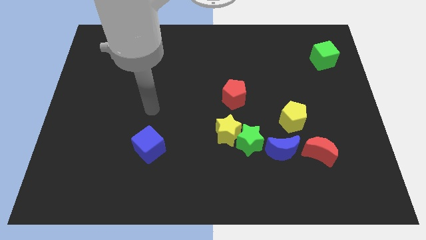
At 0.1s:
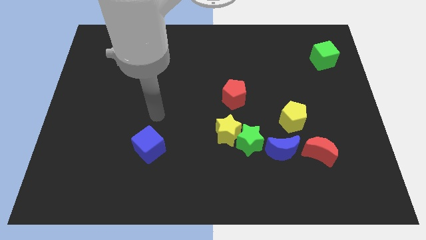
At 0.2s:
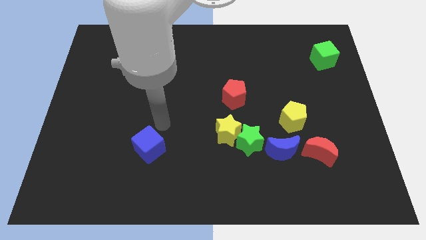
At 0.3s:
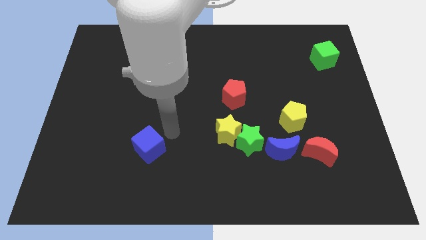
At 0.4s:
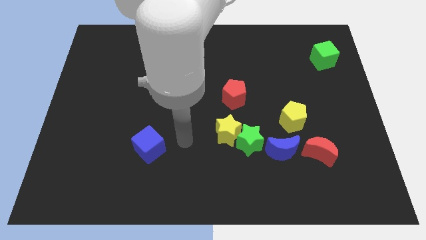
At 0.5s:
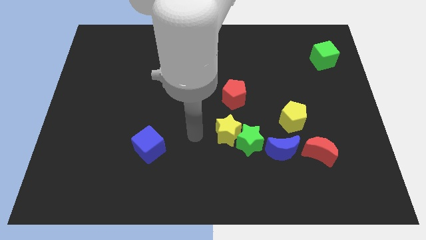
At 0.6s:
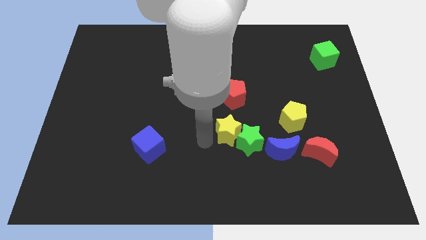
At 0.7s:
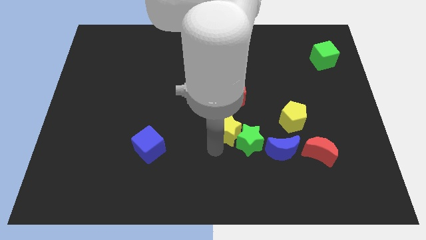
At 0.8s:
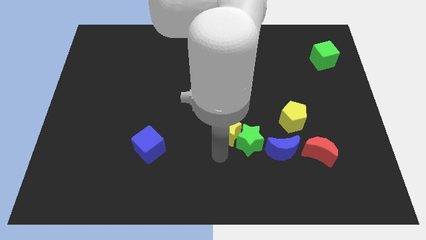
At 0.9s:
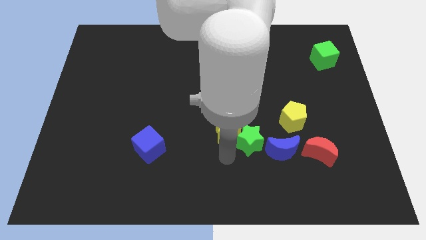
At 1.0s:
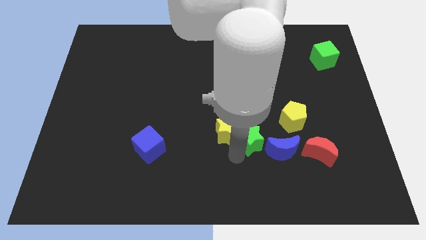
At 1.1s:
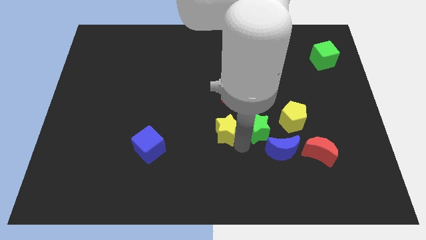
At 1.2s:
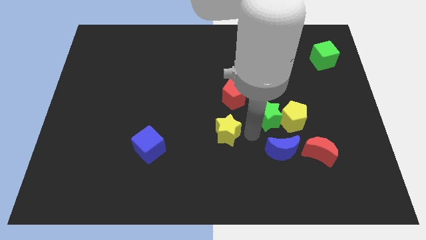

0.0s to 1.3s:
pull the yellow star apart from the green star

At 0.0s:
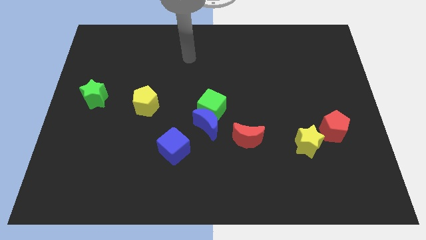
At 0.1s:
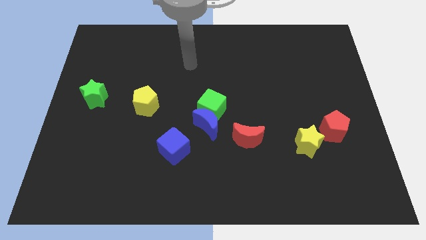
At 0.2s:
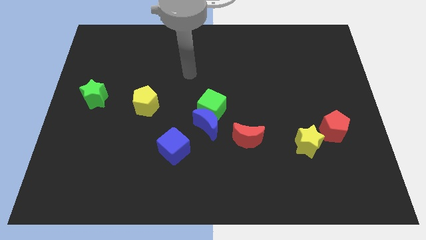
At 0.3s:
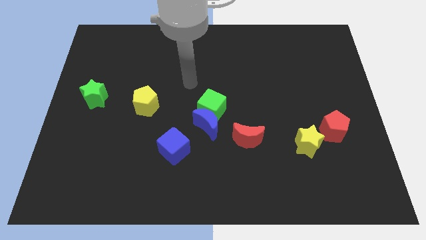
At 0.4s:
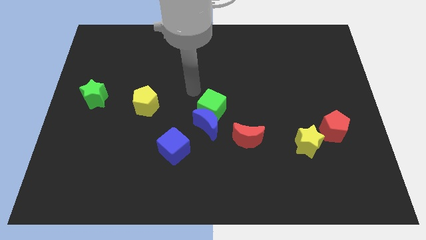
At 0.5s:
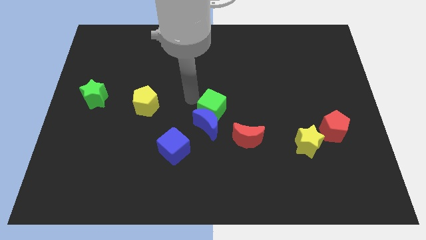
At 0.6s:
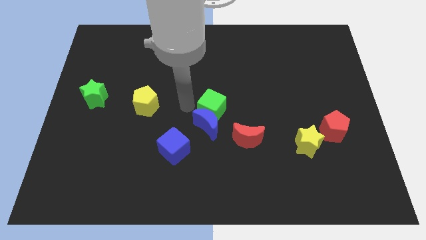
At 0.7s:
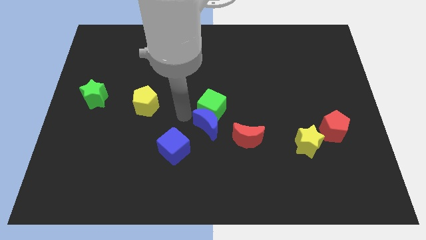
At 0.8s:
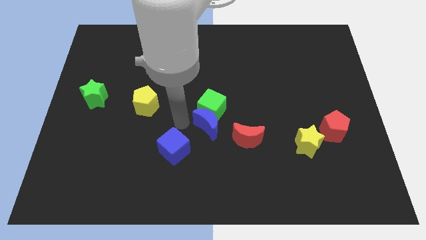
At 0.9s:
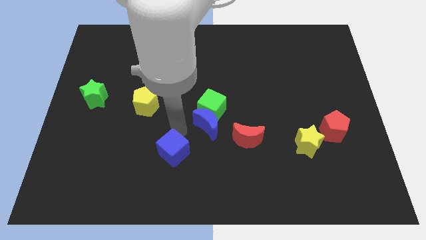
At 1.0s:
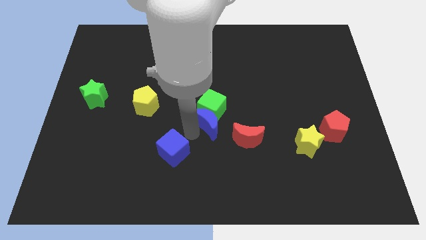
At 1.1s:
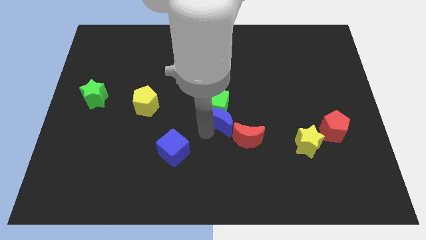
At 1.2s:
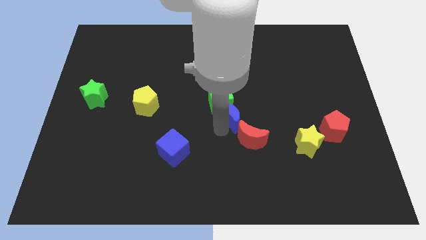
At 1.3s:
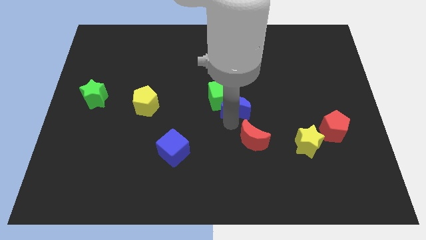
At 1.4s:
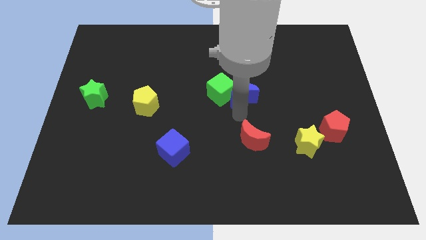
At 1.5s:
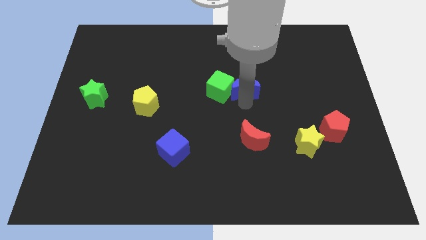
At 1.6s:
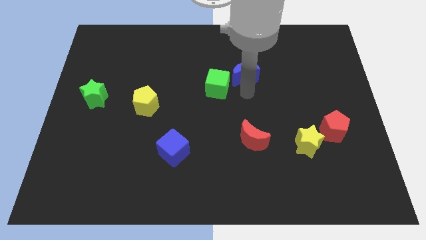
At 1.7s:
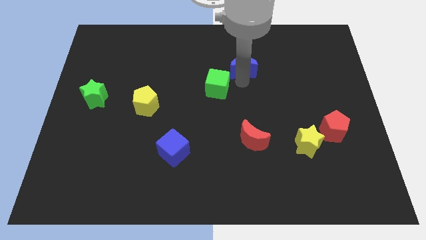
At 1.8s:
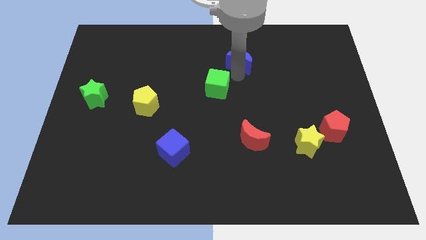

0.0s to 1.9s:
pull the green cube apart from the blue moon

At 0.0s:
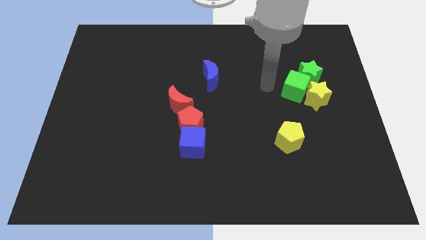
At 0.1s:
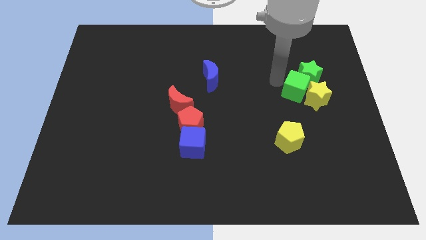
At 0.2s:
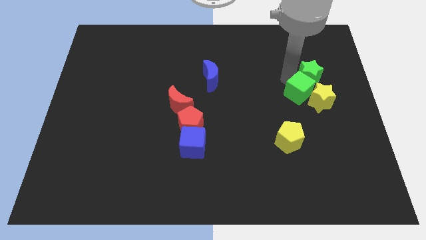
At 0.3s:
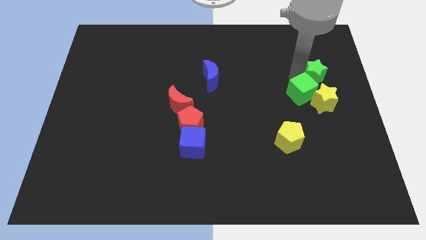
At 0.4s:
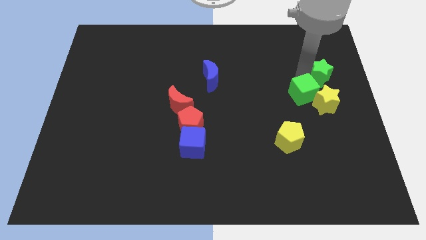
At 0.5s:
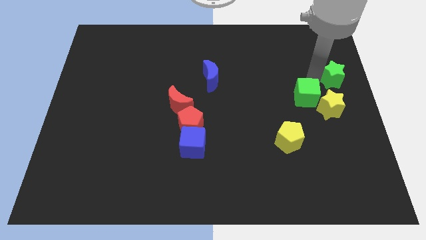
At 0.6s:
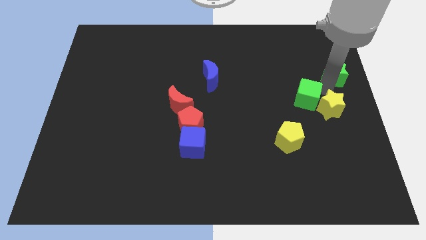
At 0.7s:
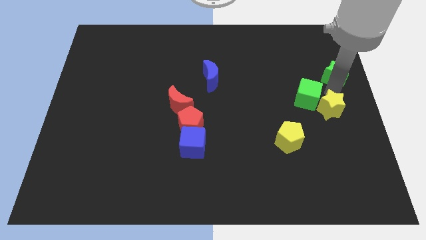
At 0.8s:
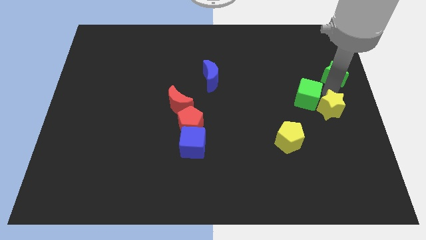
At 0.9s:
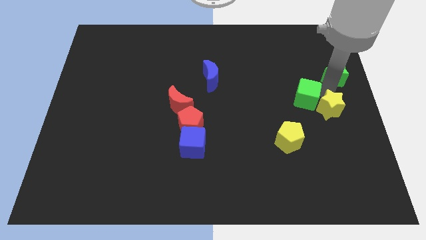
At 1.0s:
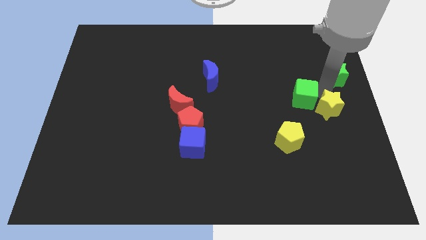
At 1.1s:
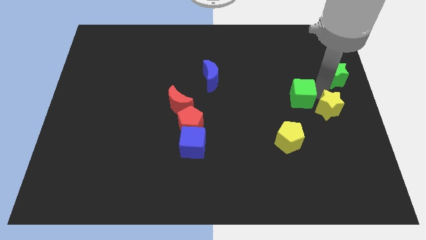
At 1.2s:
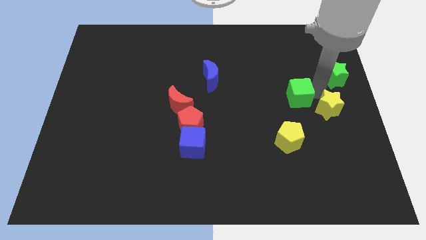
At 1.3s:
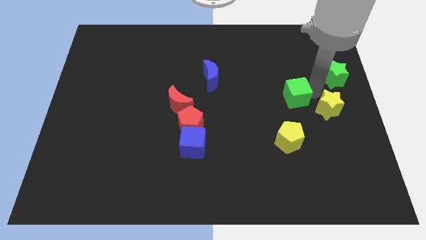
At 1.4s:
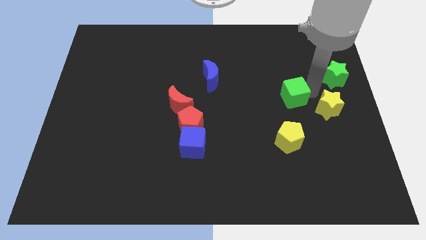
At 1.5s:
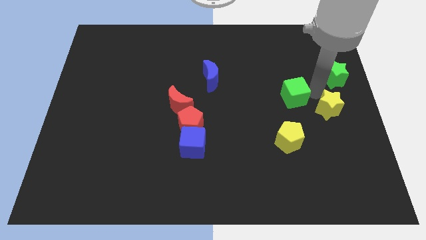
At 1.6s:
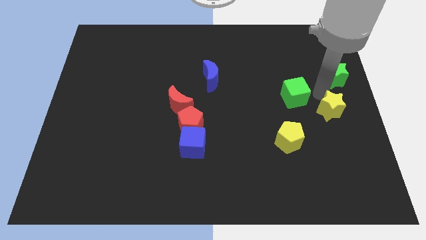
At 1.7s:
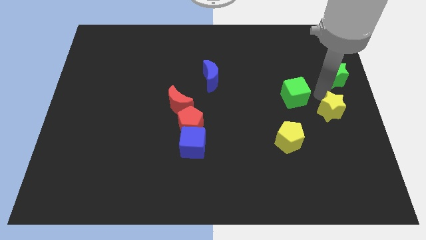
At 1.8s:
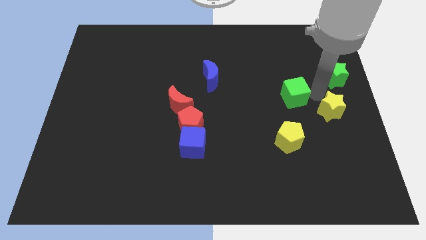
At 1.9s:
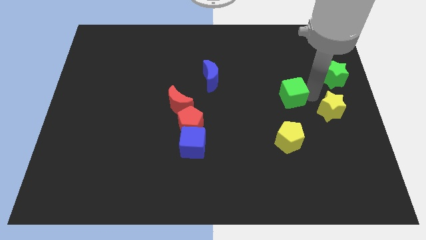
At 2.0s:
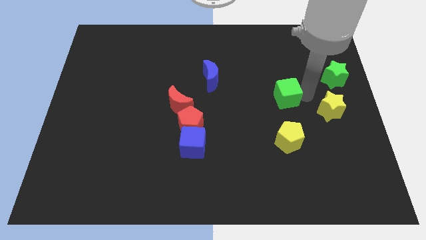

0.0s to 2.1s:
separate the green cube from the green star and yellow star

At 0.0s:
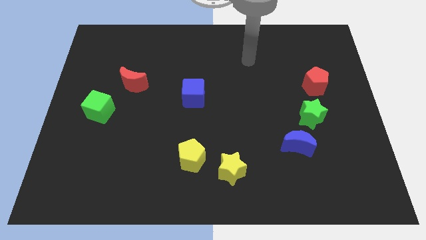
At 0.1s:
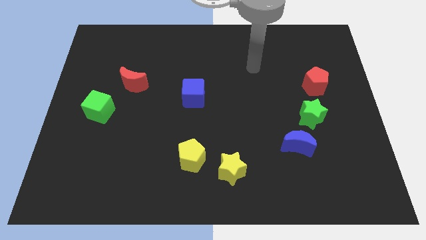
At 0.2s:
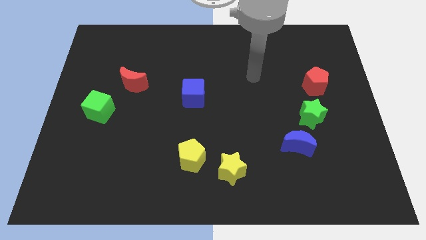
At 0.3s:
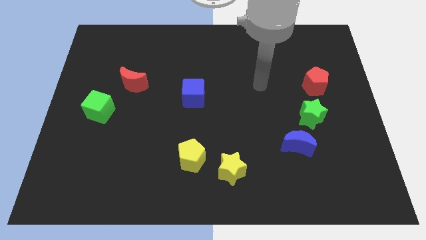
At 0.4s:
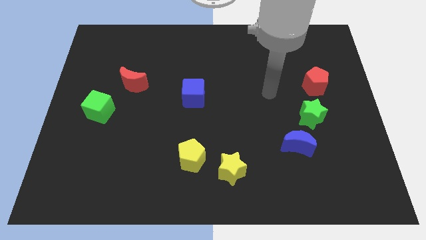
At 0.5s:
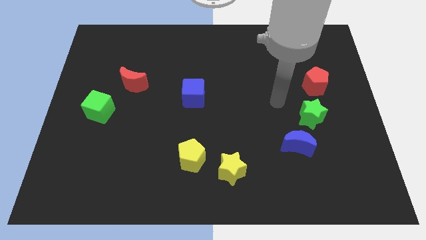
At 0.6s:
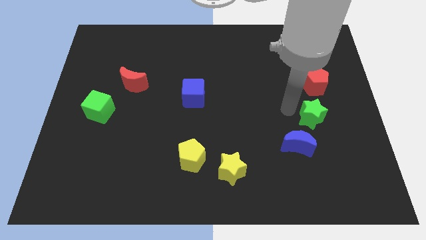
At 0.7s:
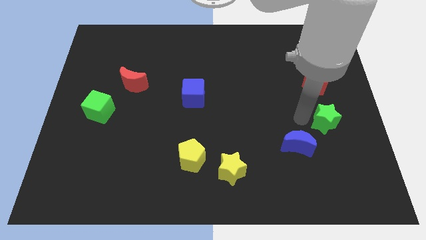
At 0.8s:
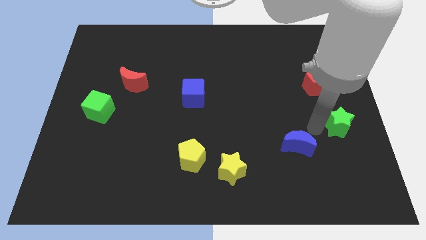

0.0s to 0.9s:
pull the blue moon apart from the green star

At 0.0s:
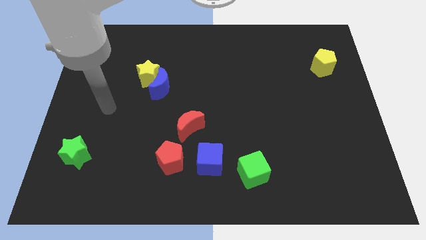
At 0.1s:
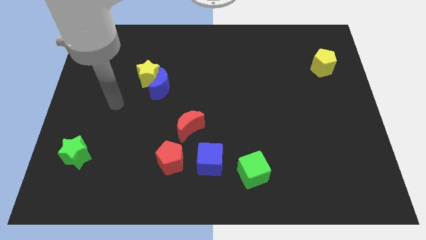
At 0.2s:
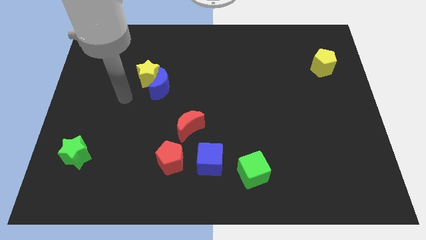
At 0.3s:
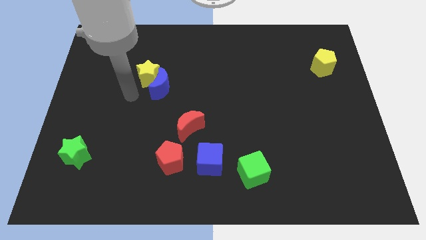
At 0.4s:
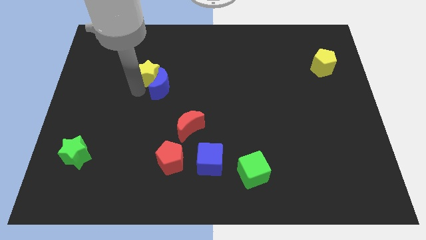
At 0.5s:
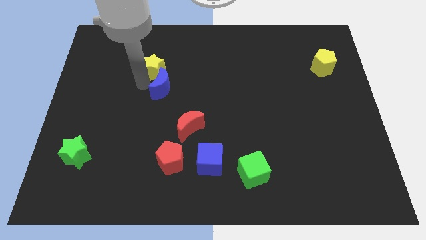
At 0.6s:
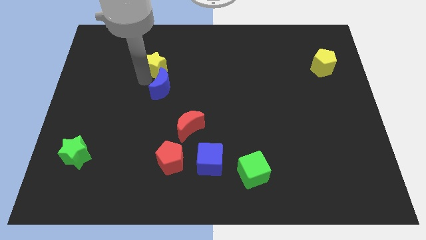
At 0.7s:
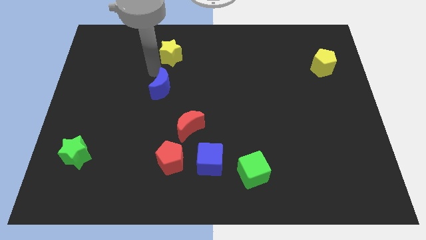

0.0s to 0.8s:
pull the blue moon apart from the yellow star

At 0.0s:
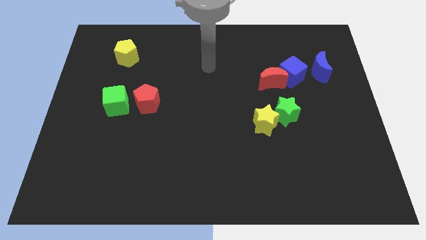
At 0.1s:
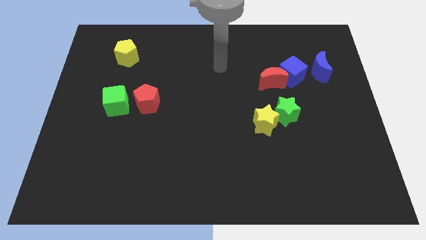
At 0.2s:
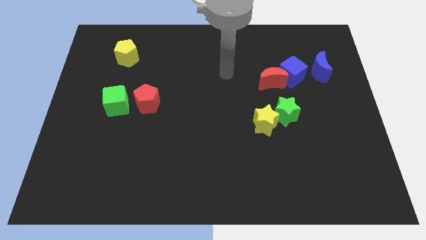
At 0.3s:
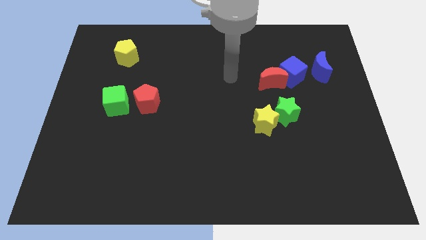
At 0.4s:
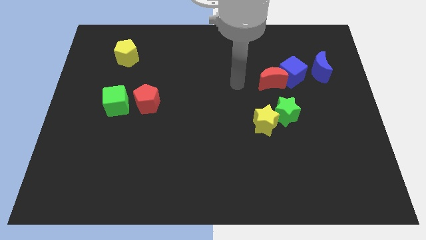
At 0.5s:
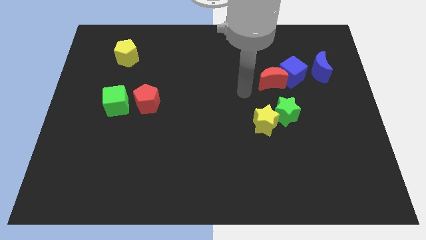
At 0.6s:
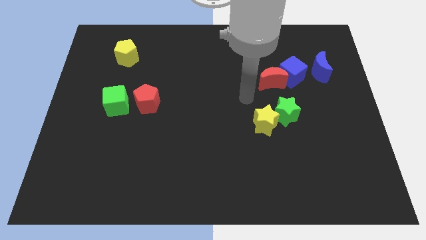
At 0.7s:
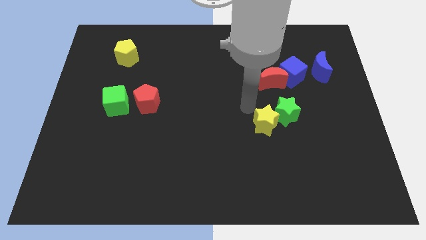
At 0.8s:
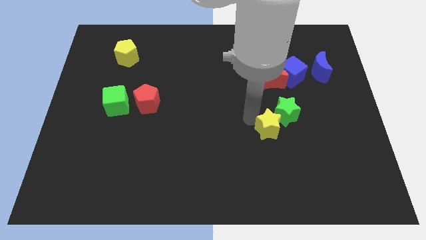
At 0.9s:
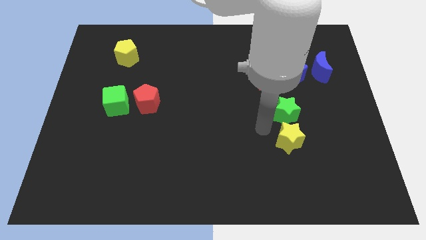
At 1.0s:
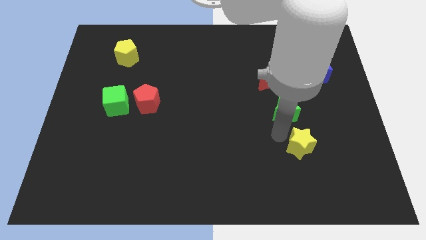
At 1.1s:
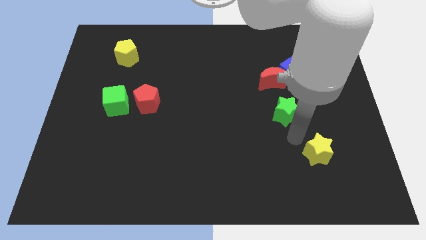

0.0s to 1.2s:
move the green star away from the yellow star

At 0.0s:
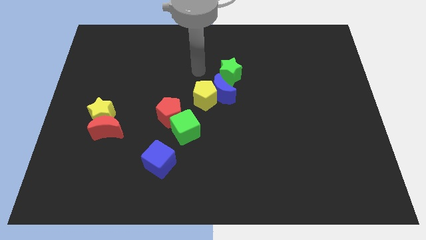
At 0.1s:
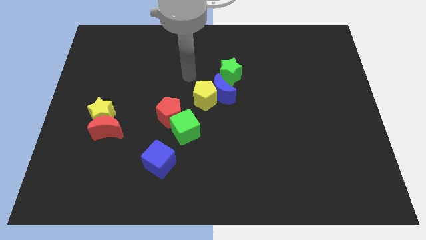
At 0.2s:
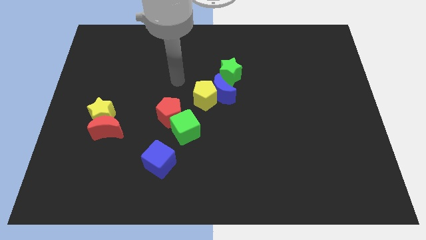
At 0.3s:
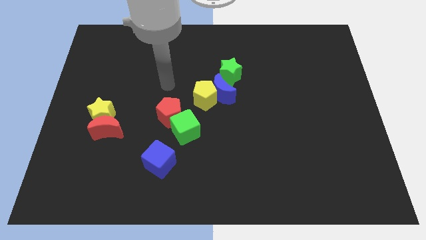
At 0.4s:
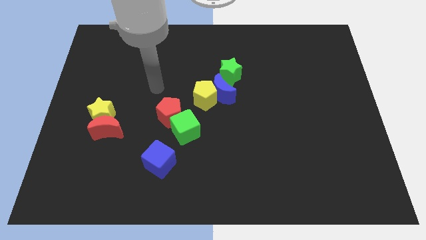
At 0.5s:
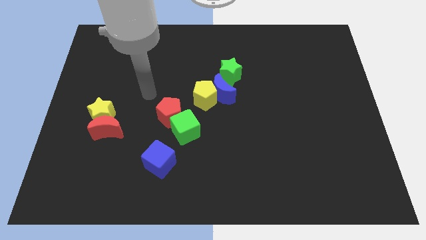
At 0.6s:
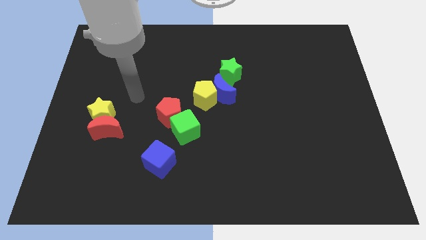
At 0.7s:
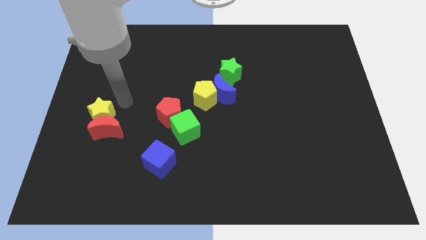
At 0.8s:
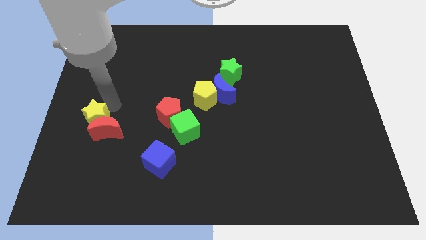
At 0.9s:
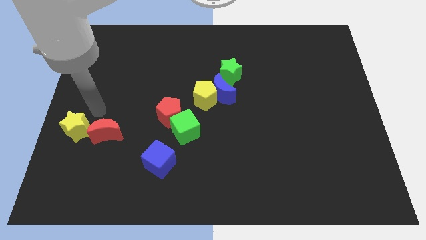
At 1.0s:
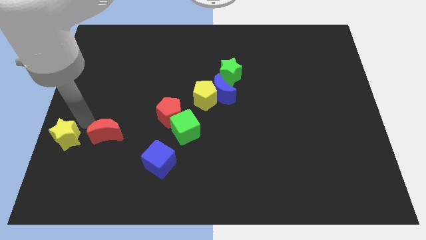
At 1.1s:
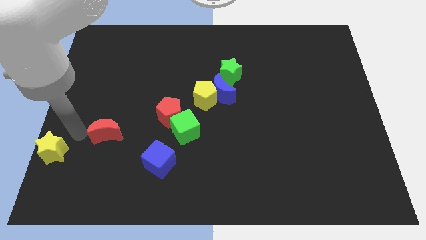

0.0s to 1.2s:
move the red moon away from the yellow star

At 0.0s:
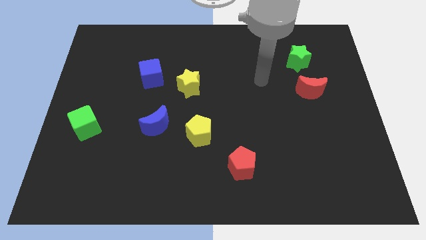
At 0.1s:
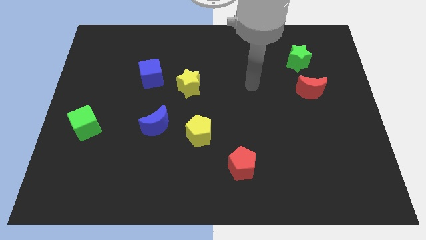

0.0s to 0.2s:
move the blue moon away from the yellow pentagon
